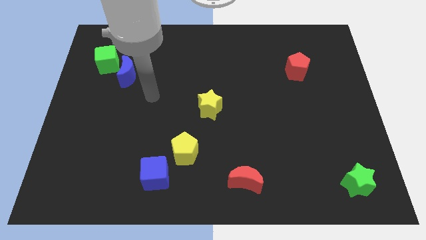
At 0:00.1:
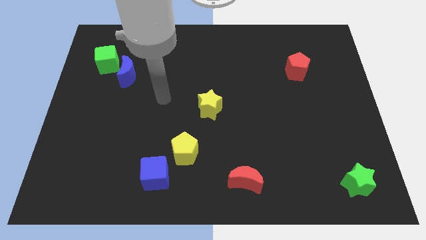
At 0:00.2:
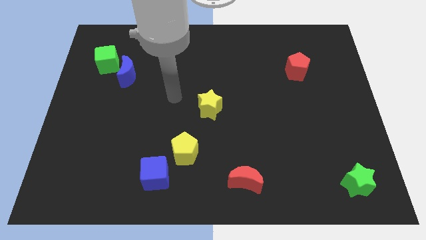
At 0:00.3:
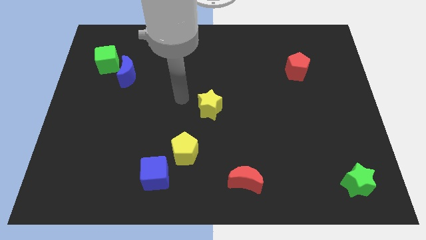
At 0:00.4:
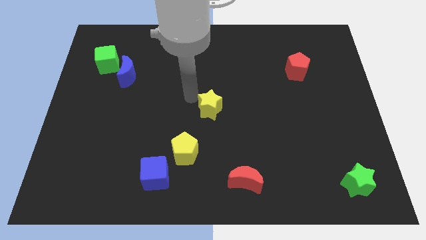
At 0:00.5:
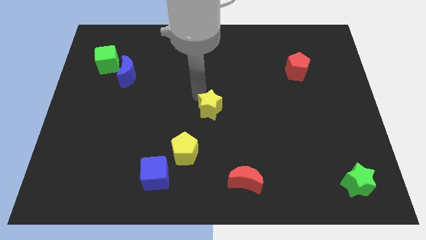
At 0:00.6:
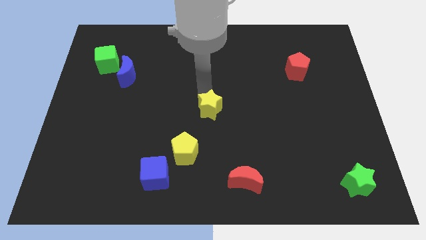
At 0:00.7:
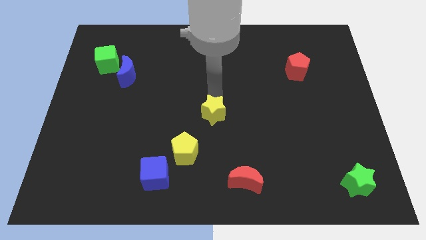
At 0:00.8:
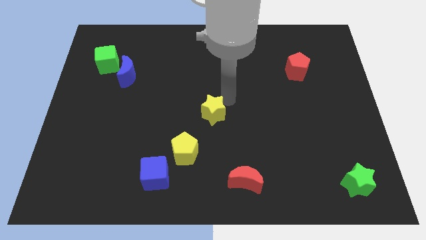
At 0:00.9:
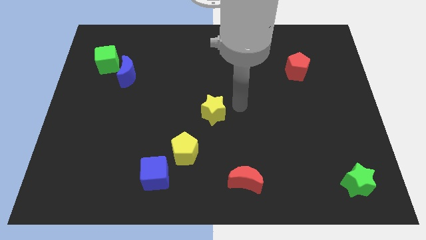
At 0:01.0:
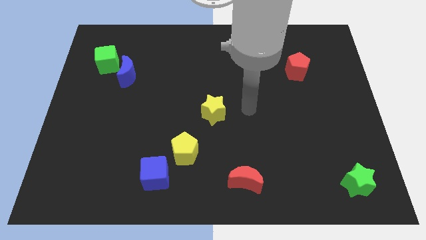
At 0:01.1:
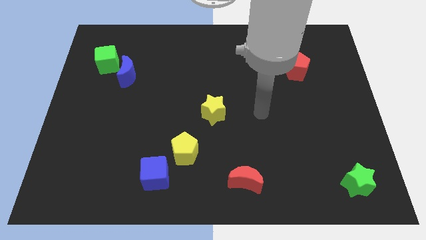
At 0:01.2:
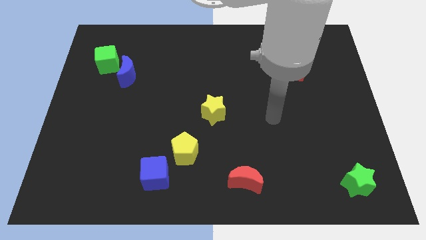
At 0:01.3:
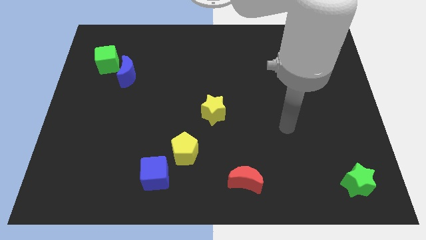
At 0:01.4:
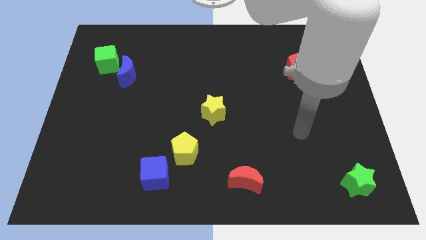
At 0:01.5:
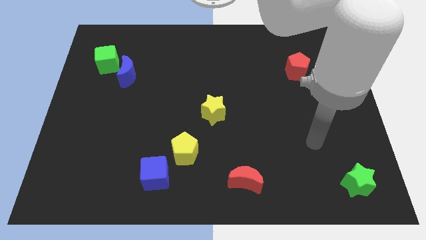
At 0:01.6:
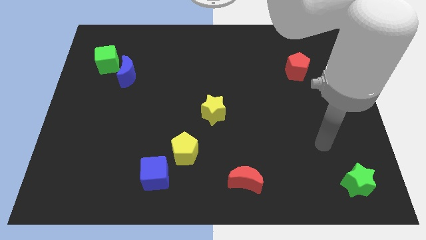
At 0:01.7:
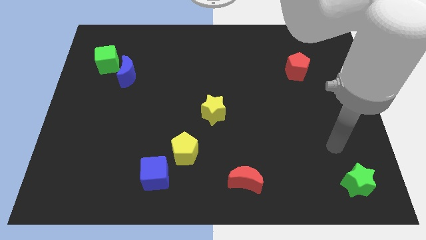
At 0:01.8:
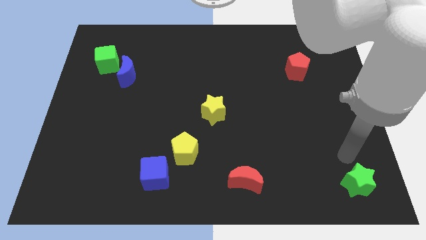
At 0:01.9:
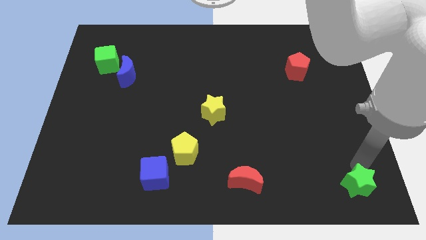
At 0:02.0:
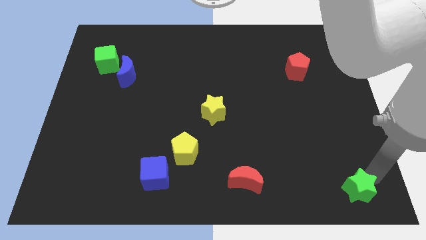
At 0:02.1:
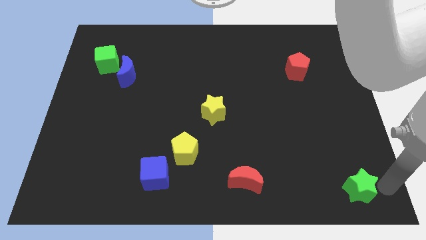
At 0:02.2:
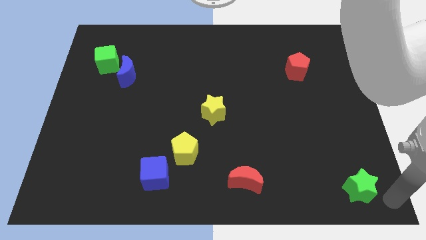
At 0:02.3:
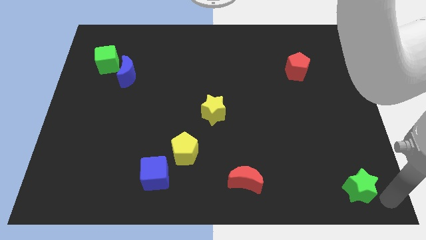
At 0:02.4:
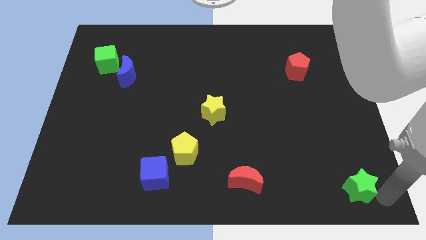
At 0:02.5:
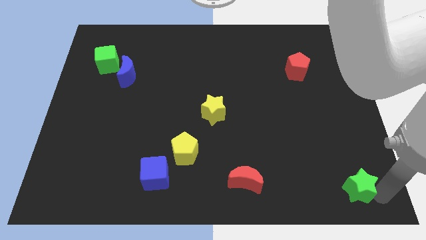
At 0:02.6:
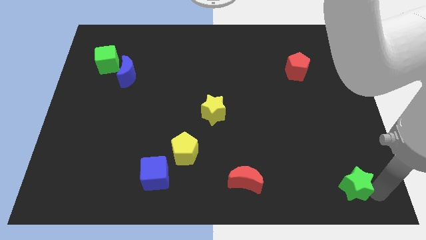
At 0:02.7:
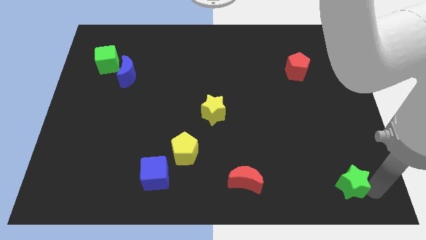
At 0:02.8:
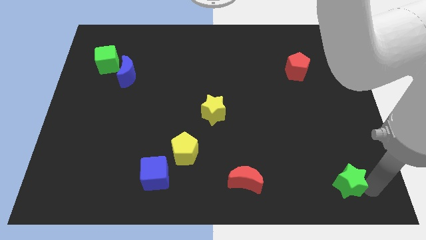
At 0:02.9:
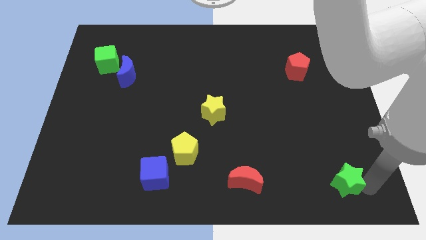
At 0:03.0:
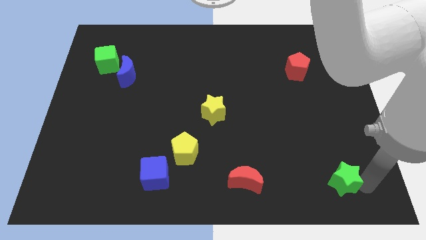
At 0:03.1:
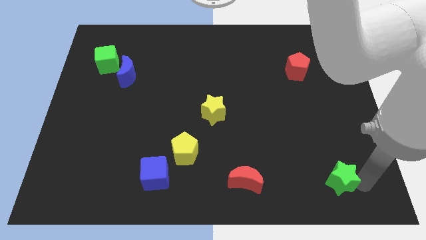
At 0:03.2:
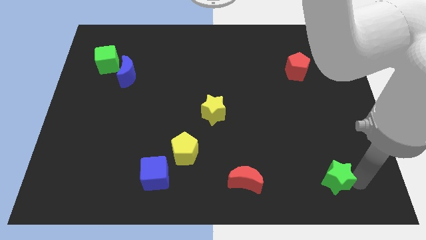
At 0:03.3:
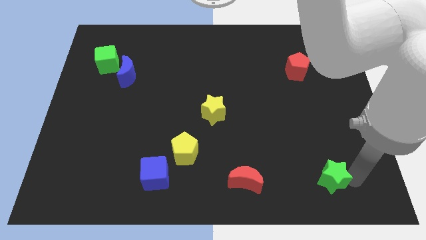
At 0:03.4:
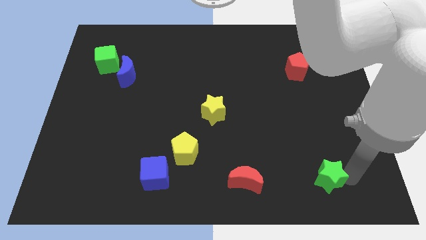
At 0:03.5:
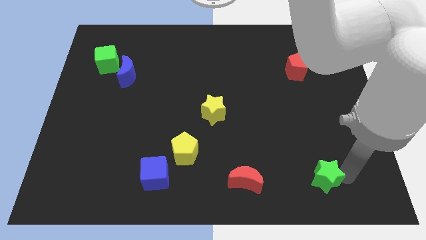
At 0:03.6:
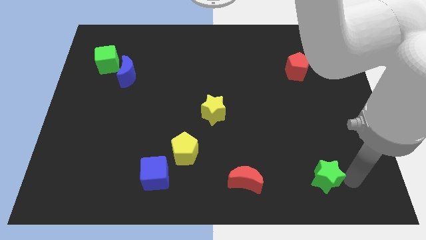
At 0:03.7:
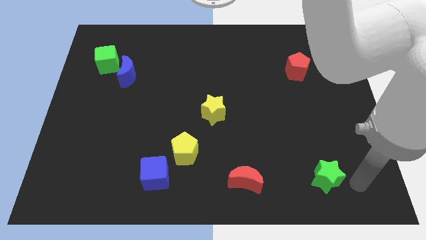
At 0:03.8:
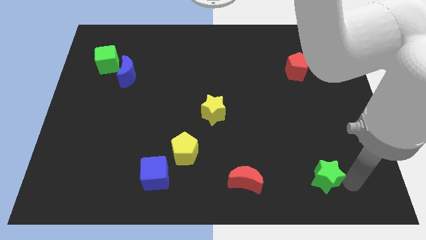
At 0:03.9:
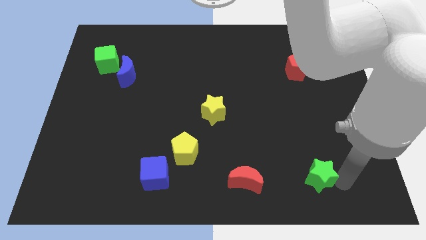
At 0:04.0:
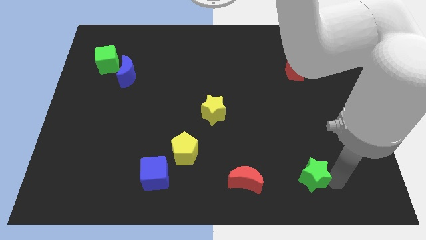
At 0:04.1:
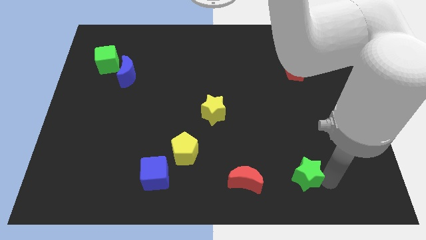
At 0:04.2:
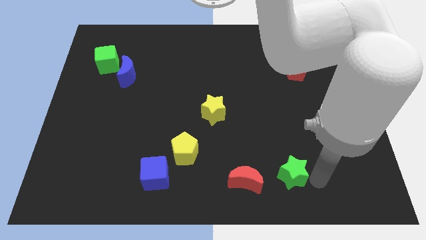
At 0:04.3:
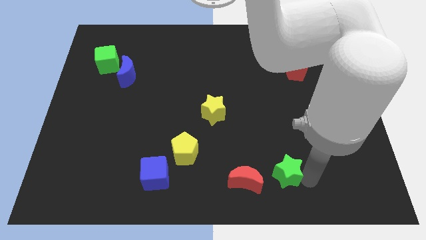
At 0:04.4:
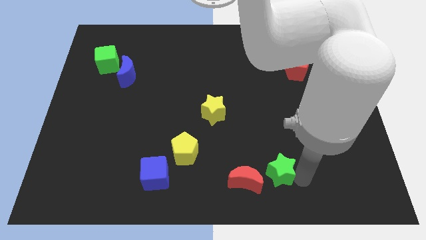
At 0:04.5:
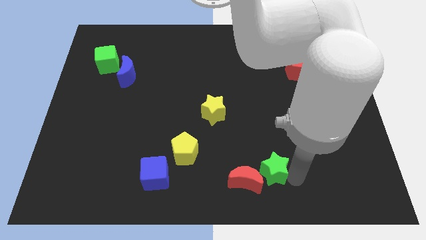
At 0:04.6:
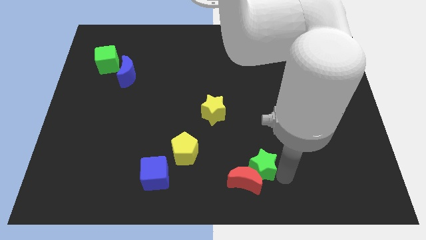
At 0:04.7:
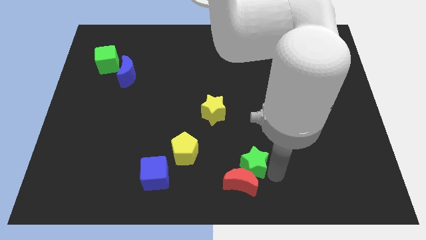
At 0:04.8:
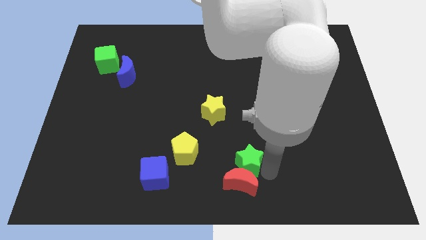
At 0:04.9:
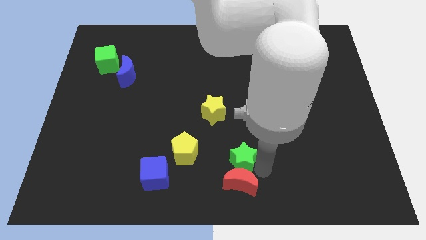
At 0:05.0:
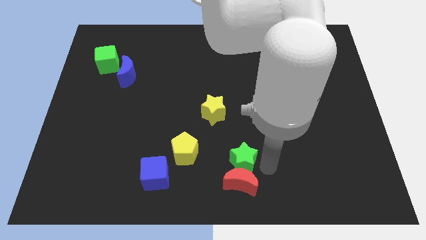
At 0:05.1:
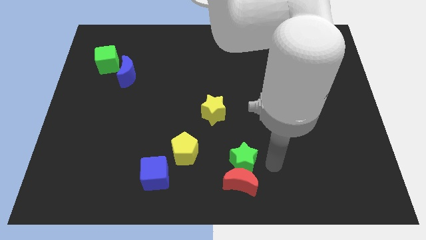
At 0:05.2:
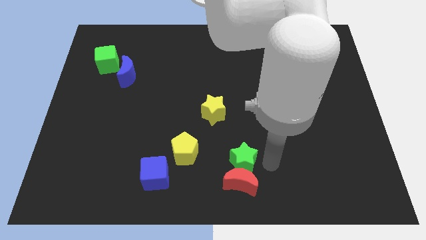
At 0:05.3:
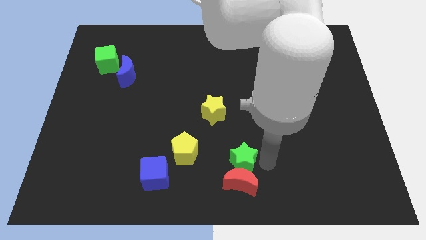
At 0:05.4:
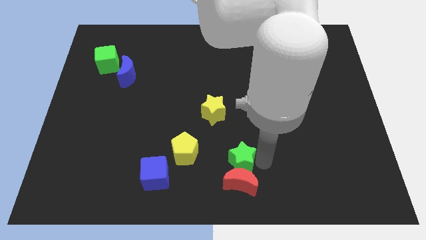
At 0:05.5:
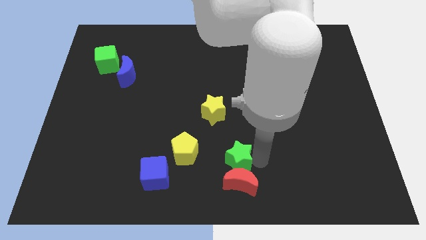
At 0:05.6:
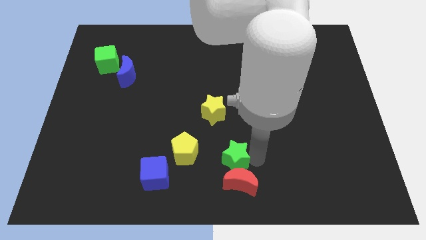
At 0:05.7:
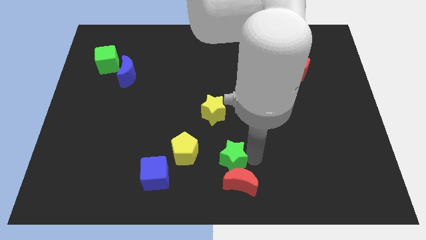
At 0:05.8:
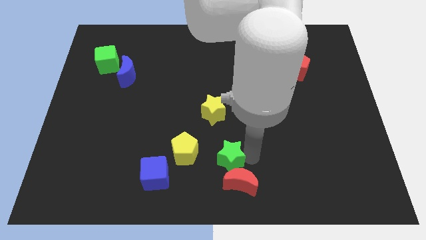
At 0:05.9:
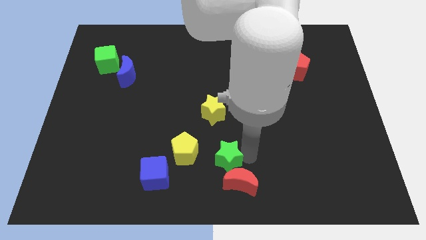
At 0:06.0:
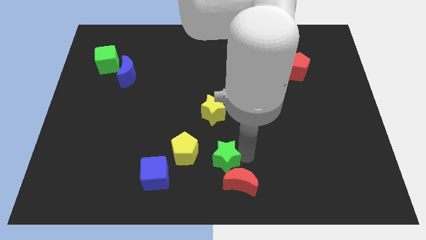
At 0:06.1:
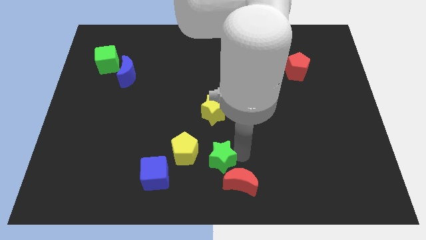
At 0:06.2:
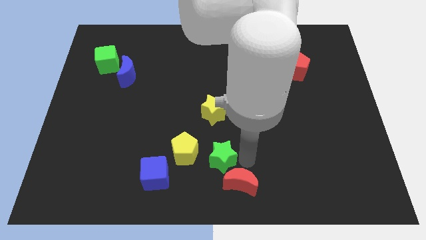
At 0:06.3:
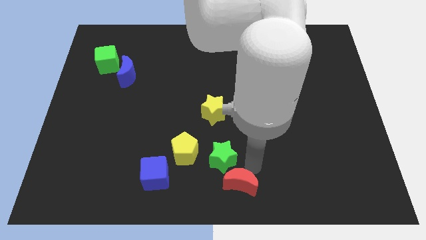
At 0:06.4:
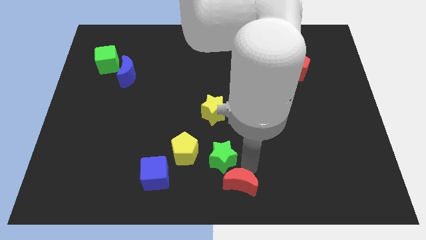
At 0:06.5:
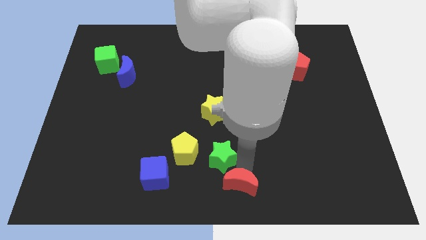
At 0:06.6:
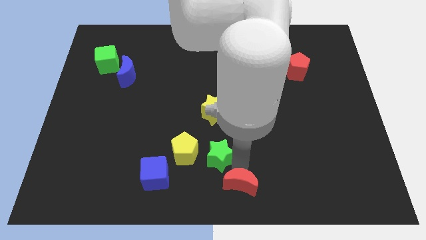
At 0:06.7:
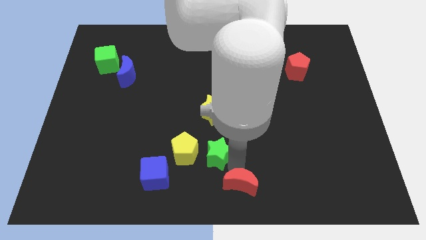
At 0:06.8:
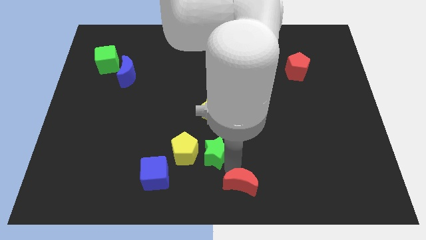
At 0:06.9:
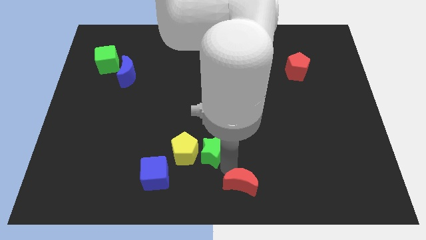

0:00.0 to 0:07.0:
slide the green star next to the yellow pentagon

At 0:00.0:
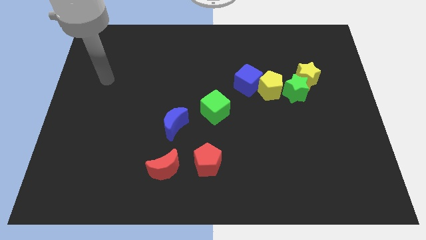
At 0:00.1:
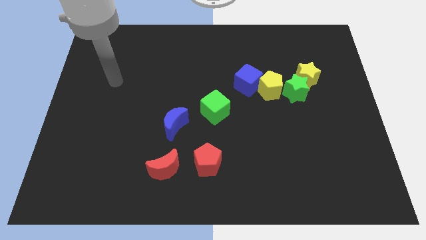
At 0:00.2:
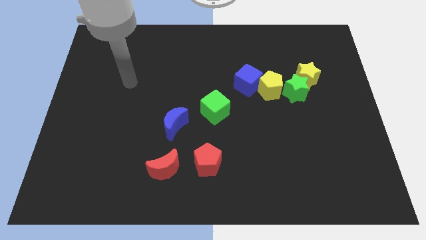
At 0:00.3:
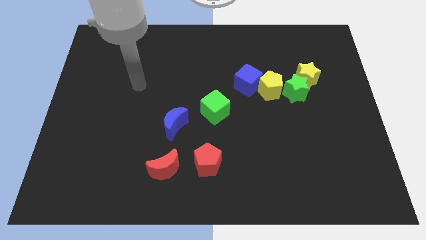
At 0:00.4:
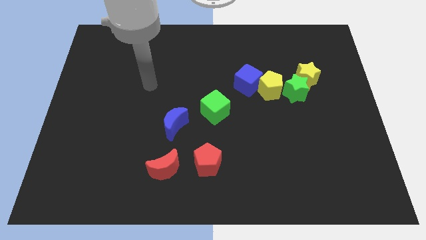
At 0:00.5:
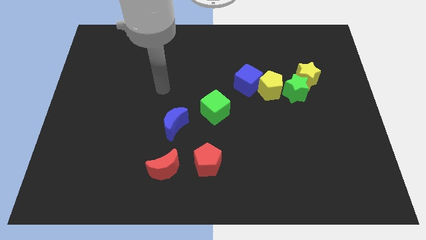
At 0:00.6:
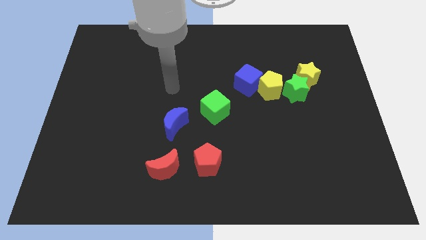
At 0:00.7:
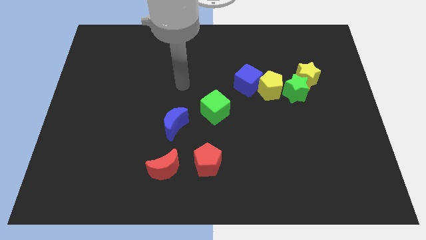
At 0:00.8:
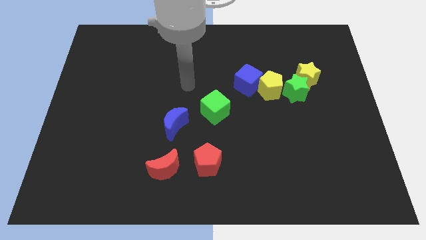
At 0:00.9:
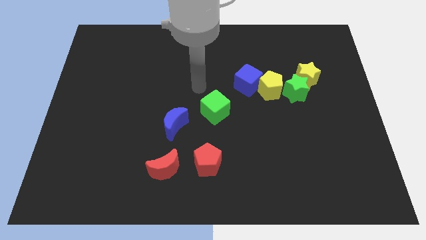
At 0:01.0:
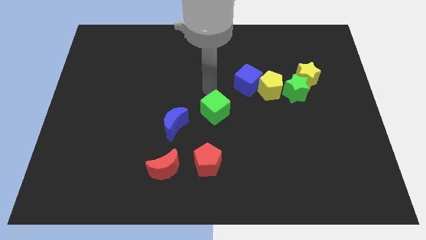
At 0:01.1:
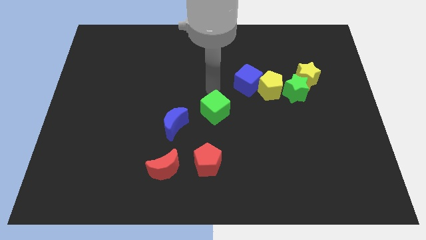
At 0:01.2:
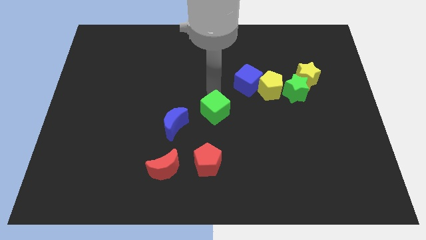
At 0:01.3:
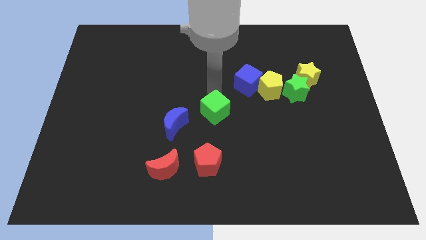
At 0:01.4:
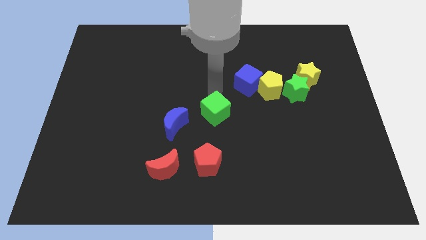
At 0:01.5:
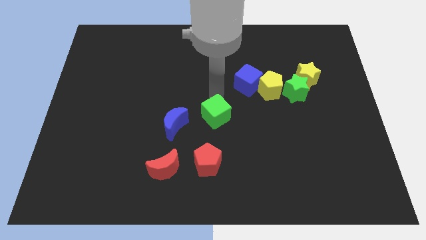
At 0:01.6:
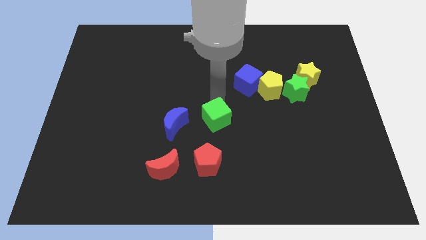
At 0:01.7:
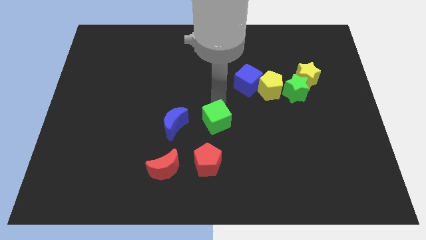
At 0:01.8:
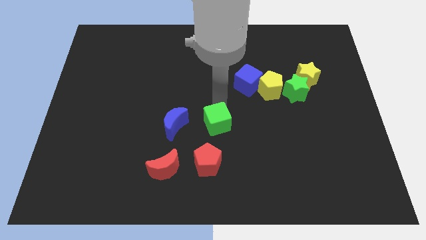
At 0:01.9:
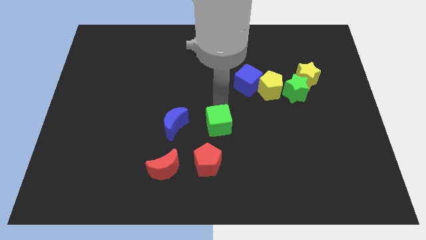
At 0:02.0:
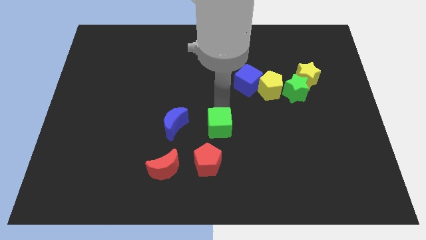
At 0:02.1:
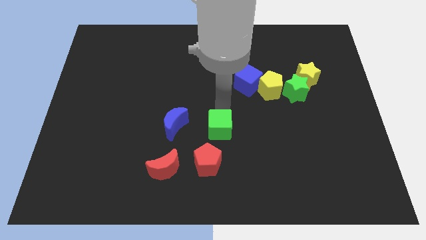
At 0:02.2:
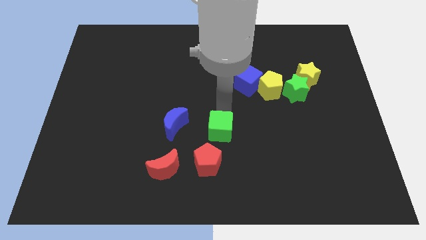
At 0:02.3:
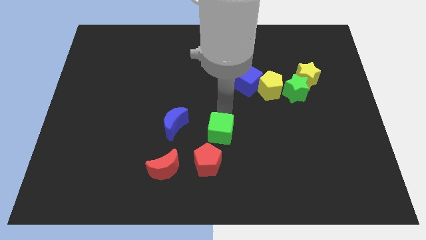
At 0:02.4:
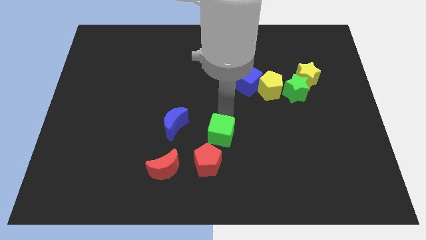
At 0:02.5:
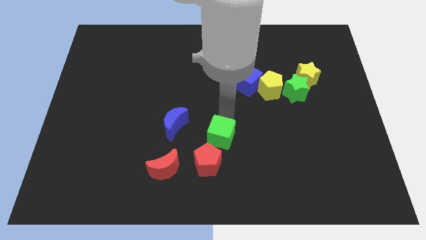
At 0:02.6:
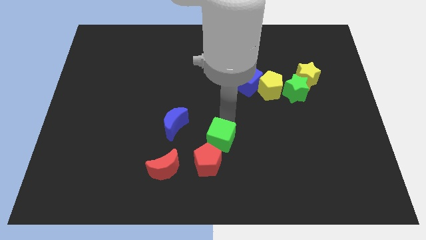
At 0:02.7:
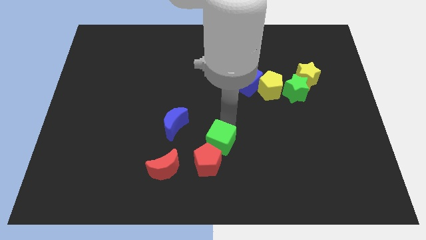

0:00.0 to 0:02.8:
move the green cube close to the red pentagon
